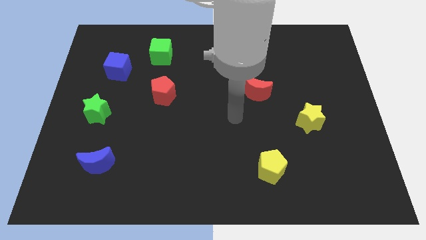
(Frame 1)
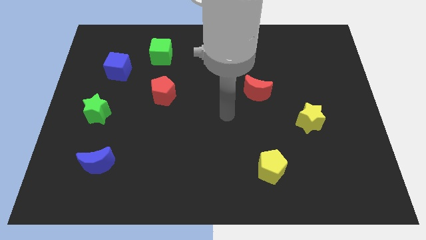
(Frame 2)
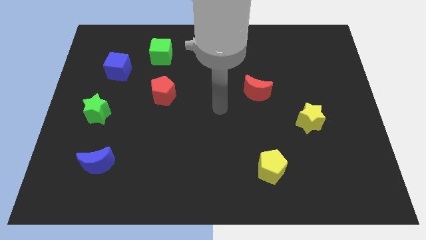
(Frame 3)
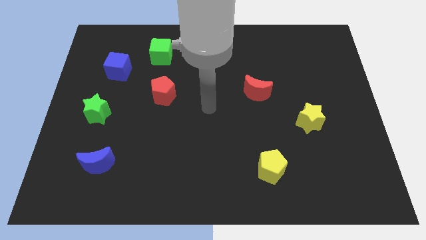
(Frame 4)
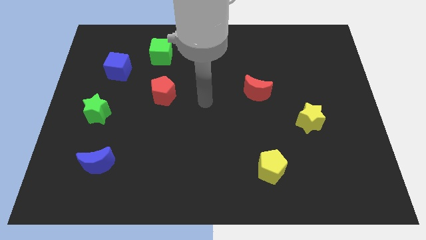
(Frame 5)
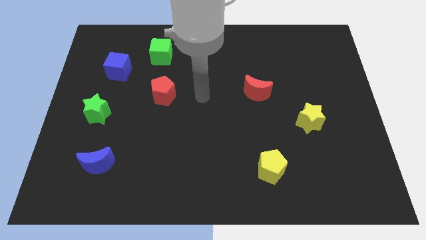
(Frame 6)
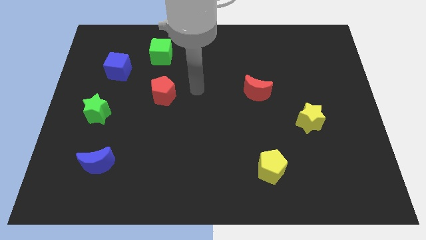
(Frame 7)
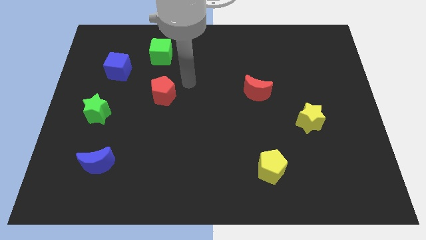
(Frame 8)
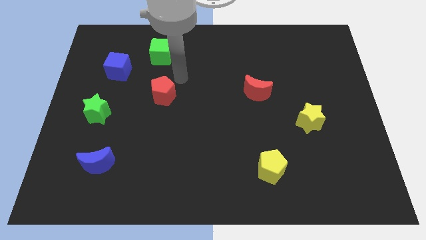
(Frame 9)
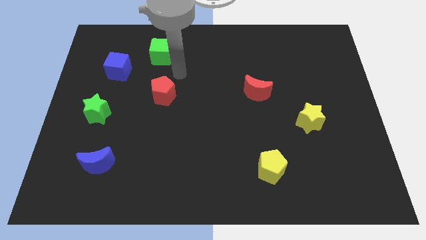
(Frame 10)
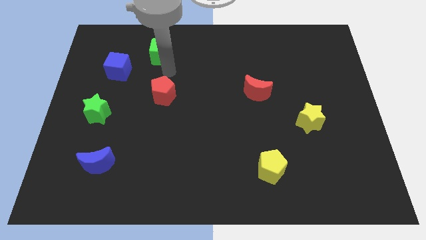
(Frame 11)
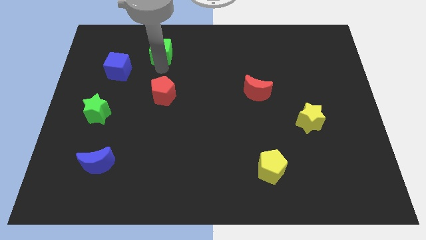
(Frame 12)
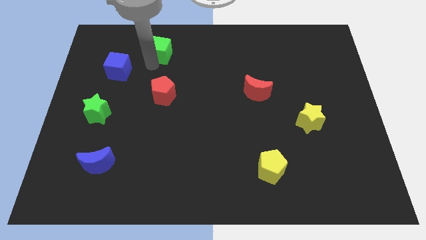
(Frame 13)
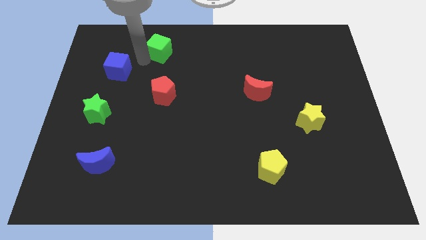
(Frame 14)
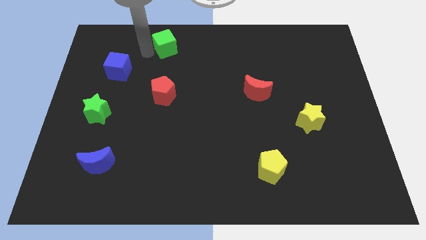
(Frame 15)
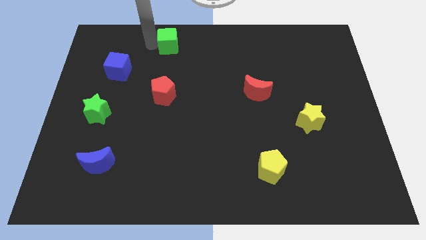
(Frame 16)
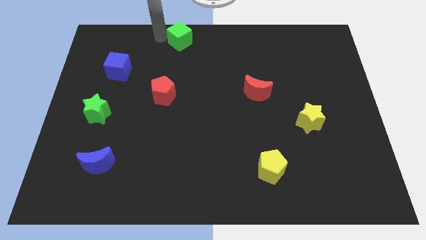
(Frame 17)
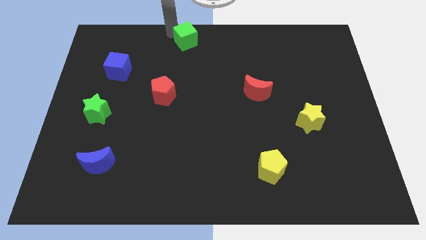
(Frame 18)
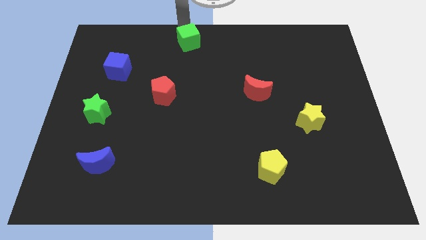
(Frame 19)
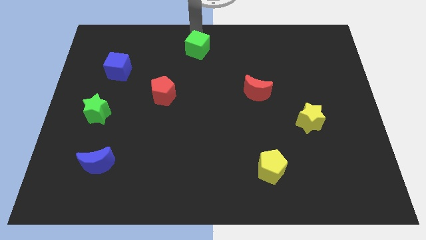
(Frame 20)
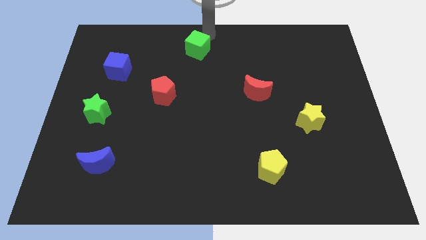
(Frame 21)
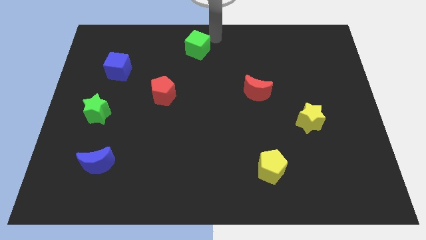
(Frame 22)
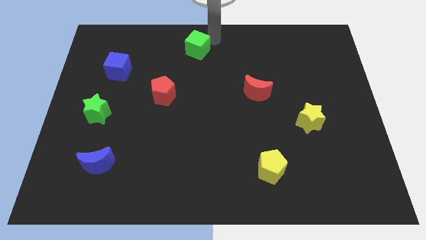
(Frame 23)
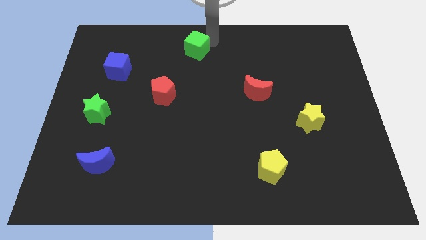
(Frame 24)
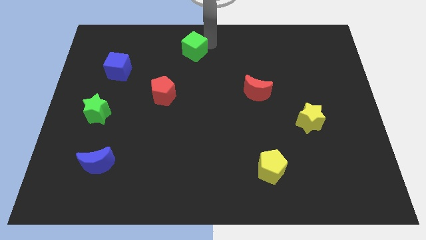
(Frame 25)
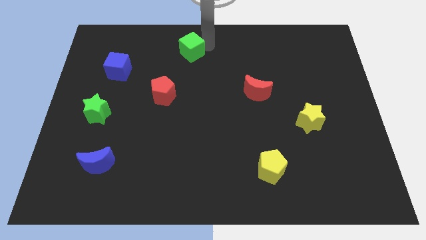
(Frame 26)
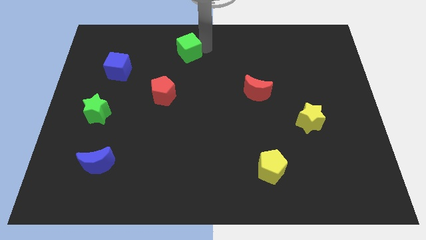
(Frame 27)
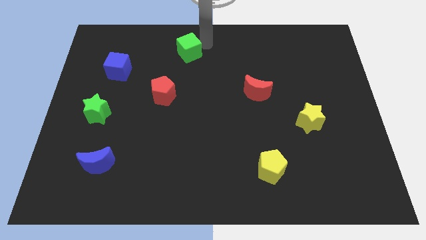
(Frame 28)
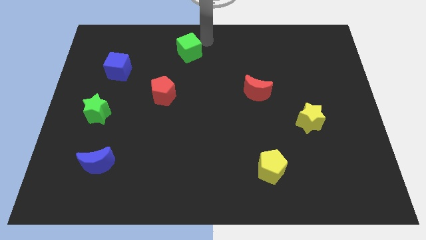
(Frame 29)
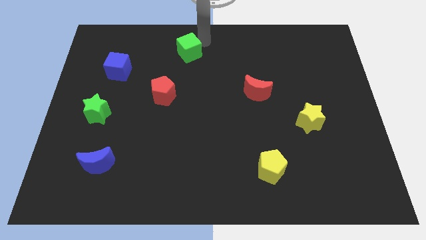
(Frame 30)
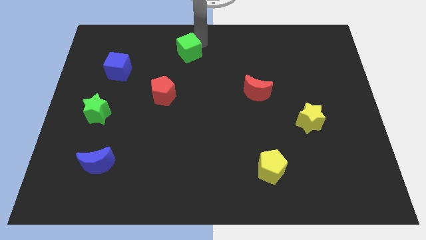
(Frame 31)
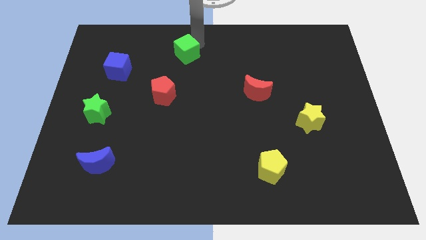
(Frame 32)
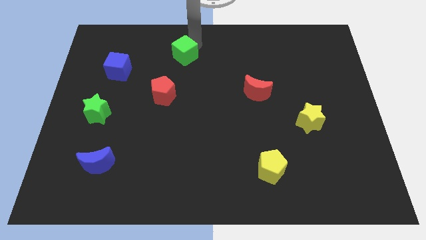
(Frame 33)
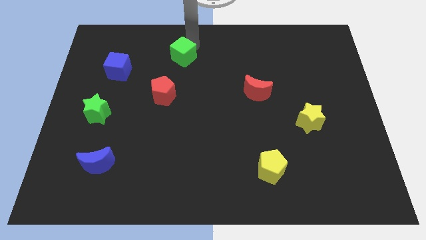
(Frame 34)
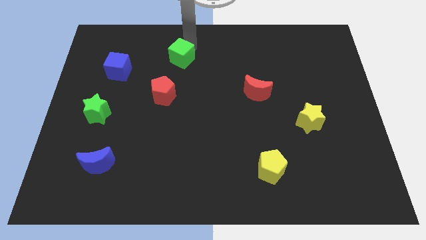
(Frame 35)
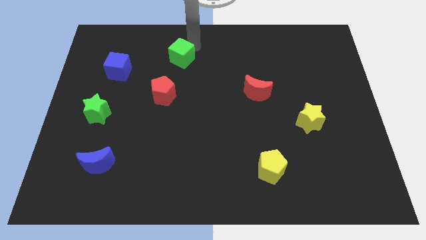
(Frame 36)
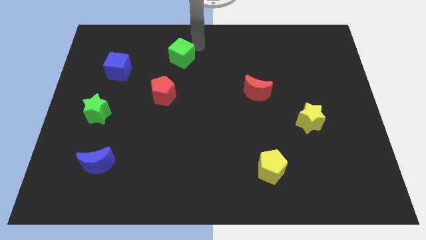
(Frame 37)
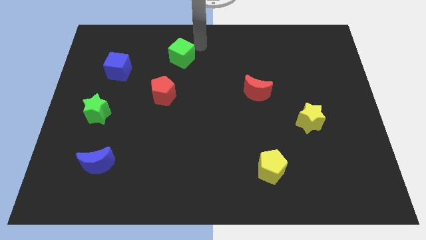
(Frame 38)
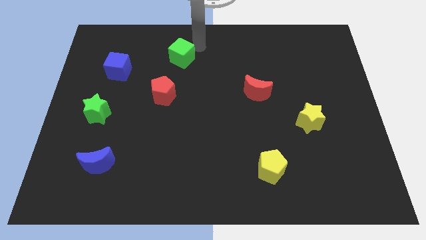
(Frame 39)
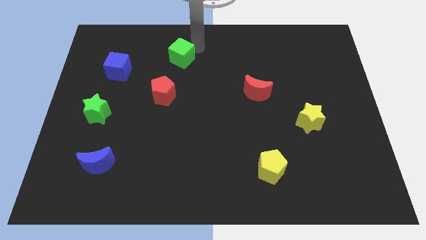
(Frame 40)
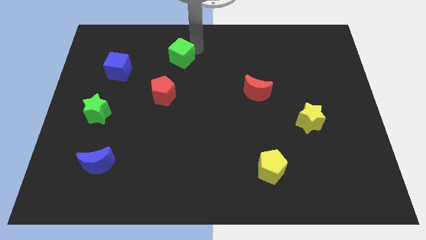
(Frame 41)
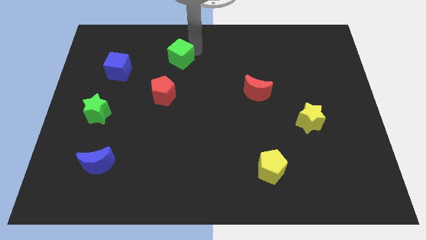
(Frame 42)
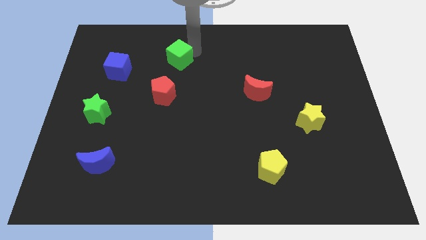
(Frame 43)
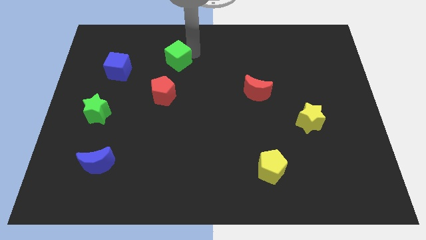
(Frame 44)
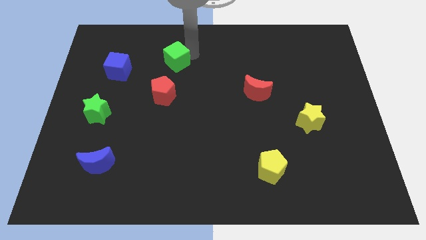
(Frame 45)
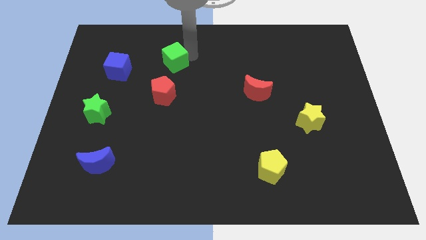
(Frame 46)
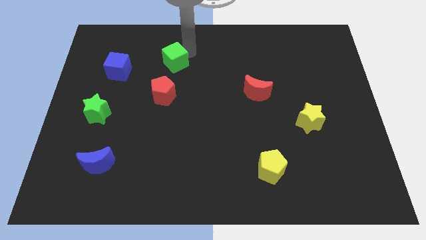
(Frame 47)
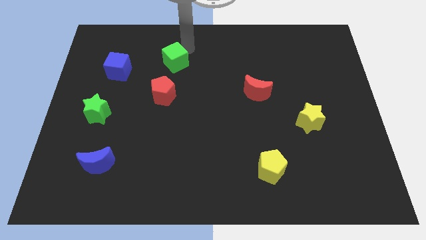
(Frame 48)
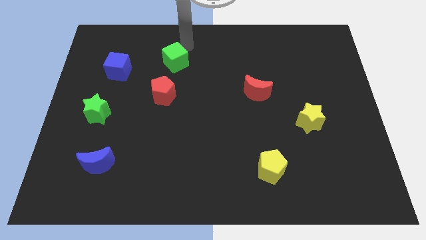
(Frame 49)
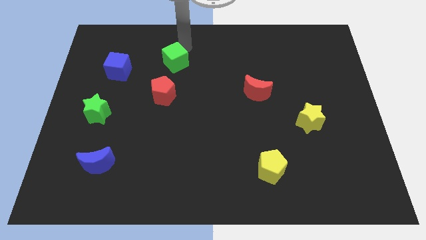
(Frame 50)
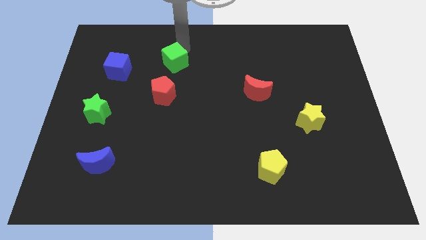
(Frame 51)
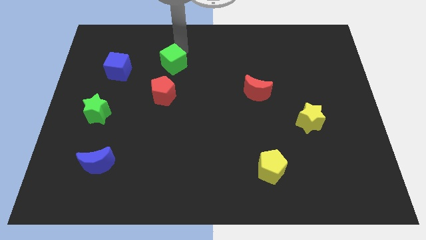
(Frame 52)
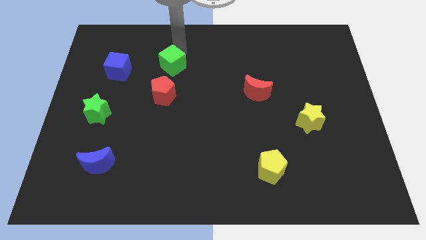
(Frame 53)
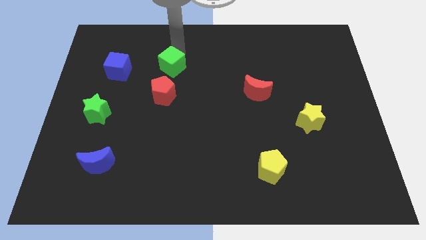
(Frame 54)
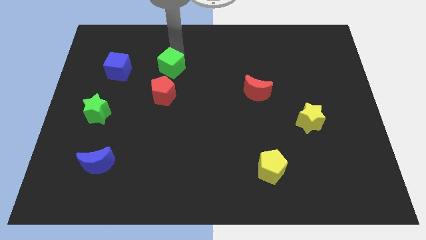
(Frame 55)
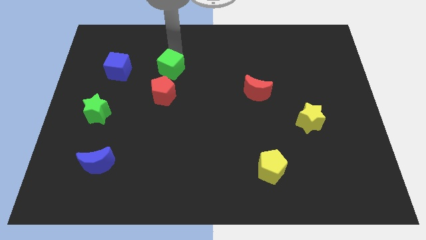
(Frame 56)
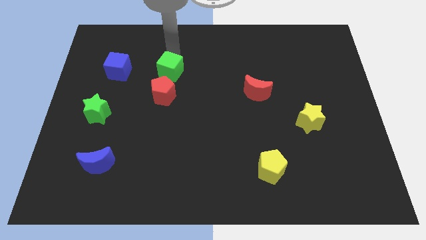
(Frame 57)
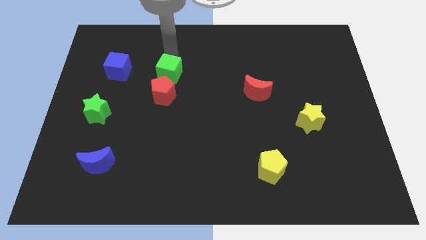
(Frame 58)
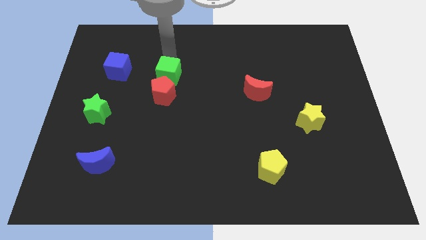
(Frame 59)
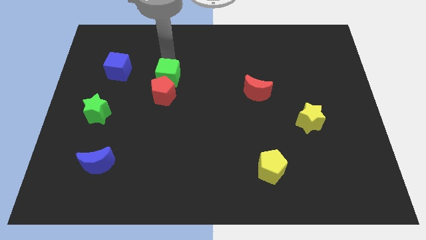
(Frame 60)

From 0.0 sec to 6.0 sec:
push the green cube next to the red pentagon

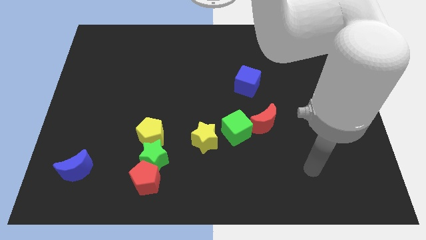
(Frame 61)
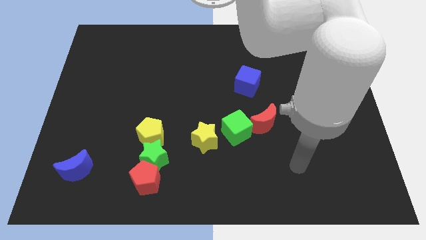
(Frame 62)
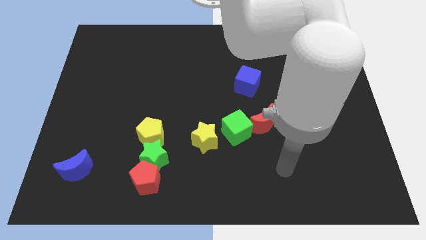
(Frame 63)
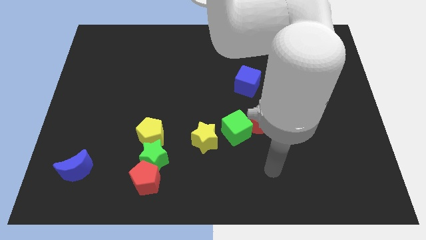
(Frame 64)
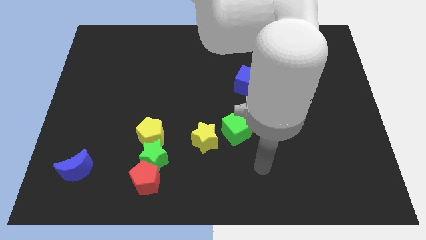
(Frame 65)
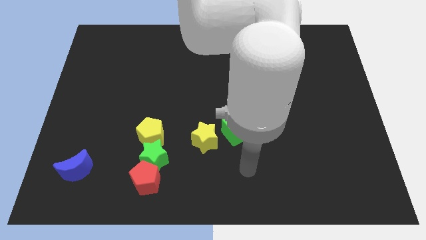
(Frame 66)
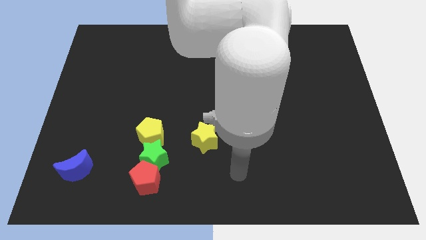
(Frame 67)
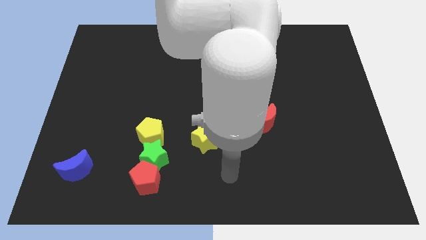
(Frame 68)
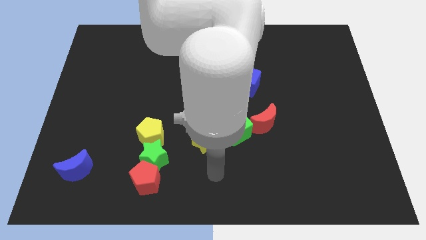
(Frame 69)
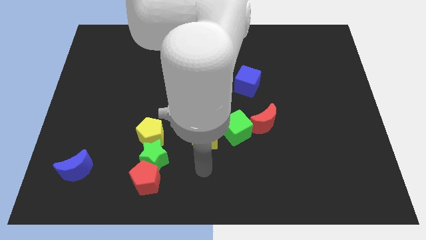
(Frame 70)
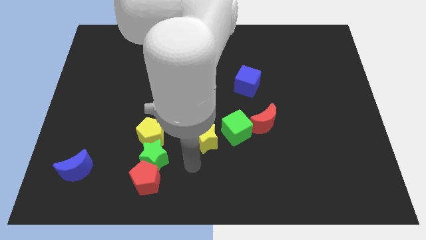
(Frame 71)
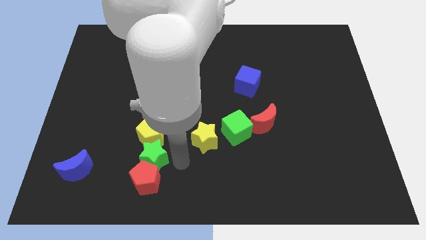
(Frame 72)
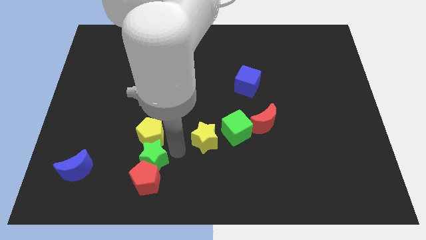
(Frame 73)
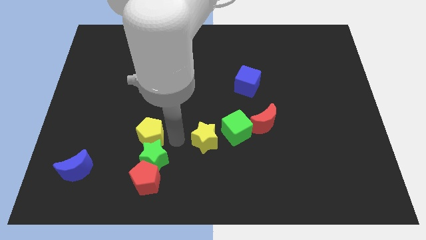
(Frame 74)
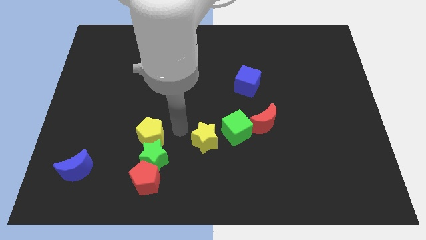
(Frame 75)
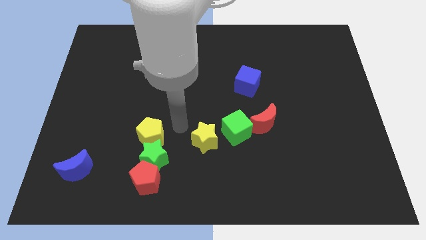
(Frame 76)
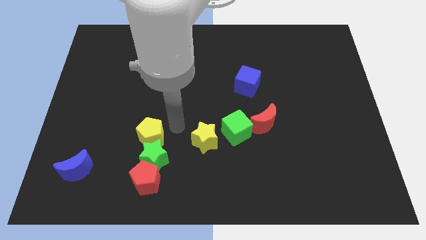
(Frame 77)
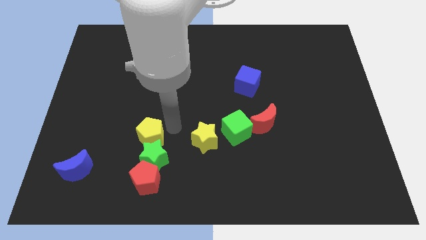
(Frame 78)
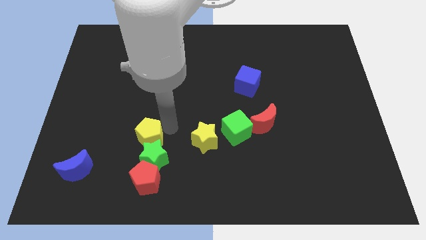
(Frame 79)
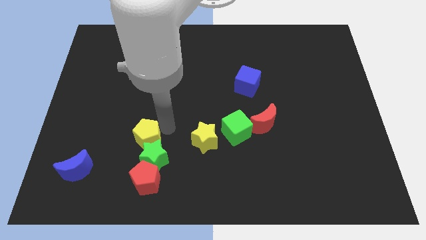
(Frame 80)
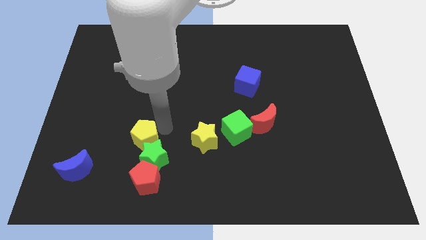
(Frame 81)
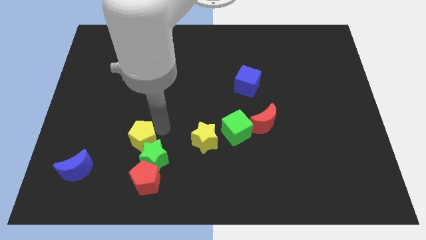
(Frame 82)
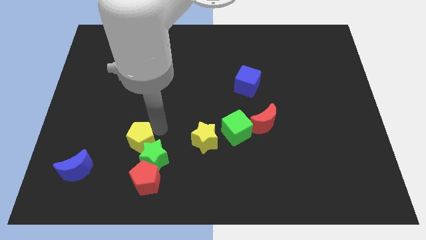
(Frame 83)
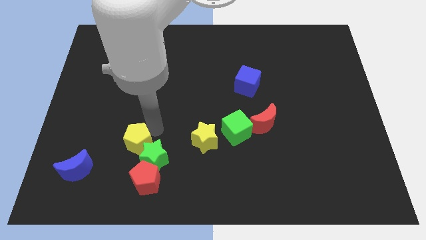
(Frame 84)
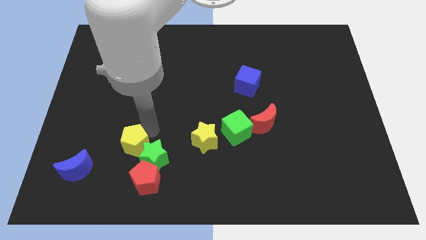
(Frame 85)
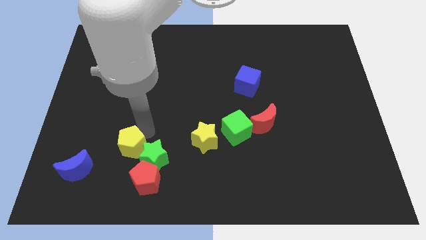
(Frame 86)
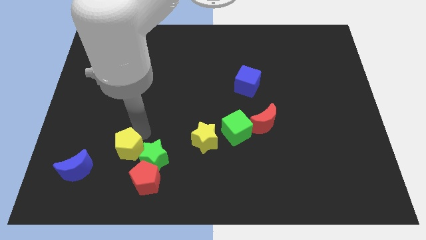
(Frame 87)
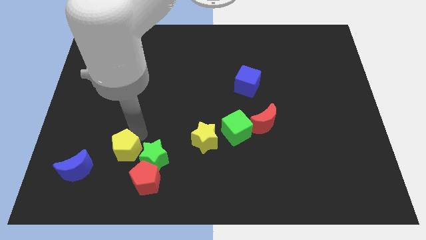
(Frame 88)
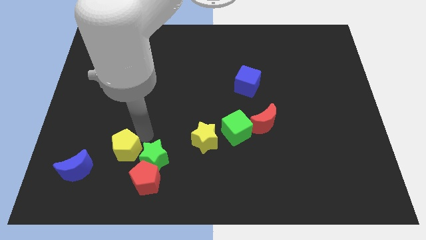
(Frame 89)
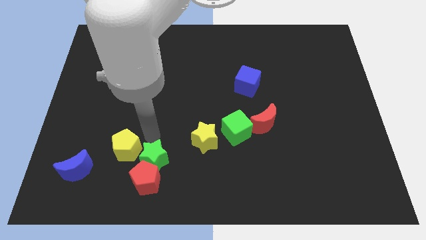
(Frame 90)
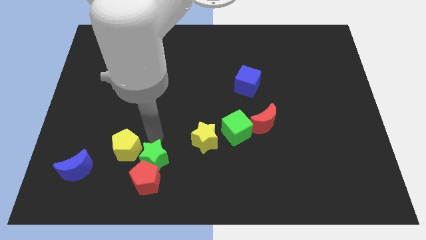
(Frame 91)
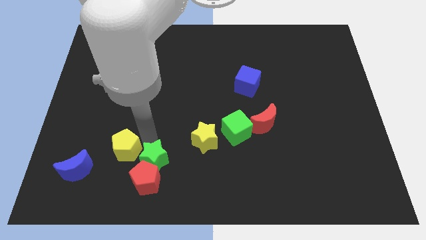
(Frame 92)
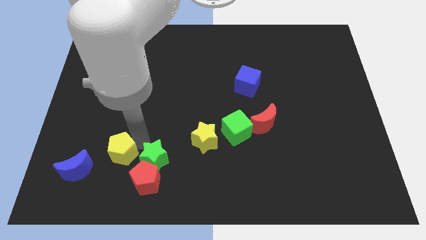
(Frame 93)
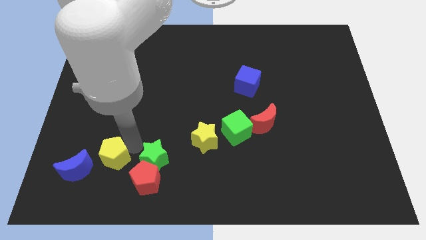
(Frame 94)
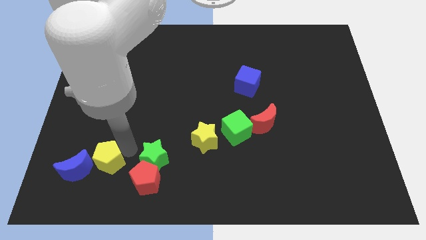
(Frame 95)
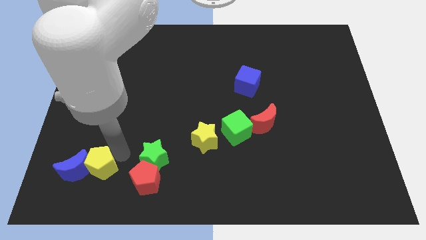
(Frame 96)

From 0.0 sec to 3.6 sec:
put the yellow pentagon close to the blue moon
